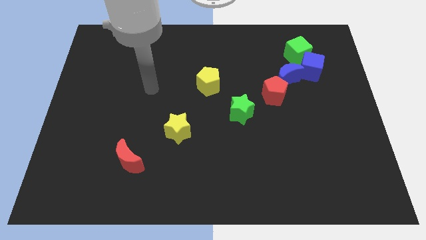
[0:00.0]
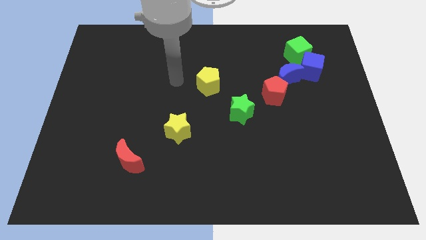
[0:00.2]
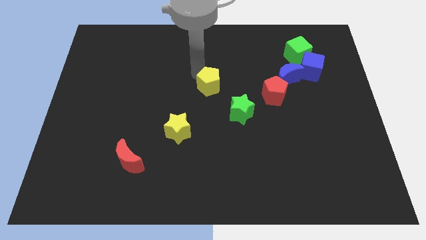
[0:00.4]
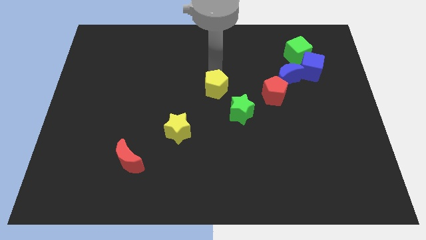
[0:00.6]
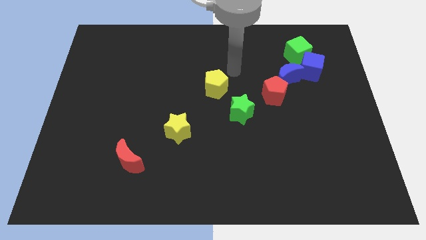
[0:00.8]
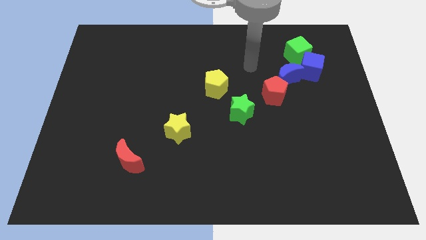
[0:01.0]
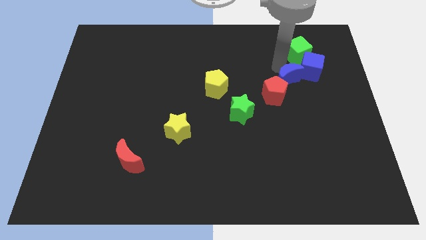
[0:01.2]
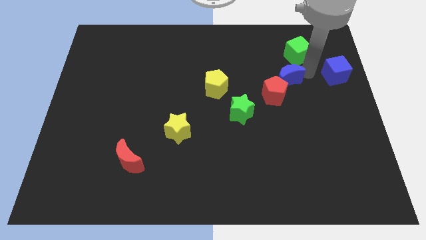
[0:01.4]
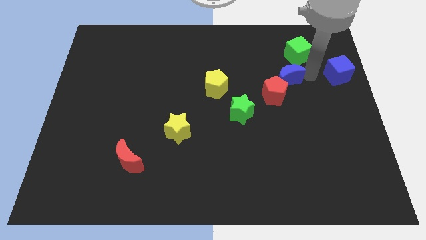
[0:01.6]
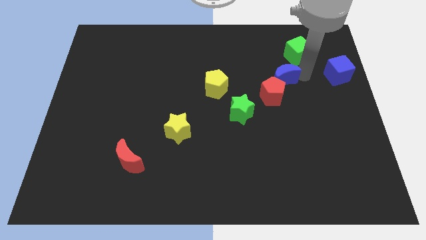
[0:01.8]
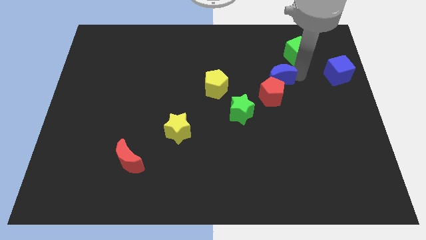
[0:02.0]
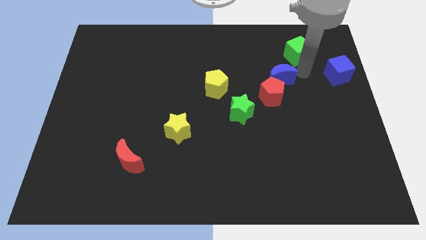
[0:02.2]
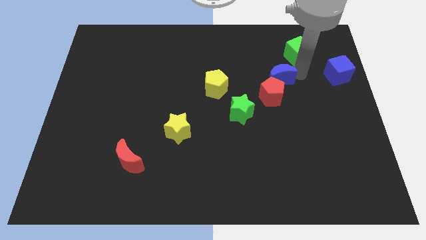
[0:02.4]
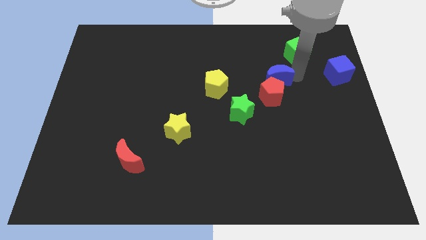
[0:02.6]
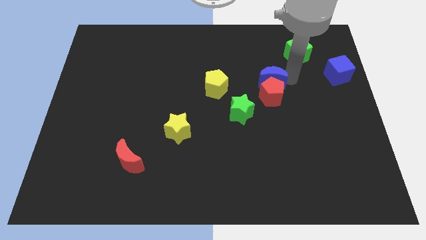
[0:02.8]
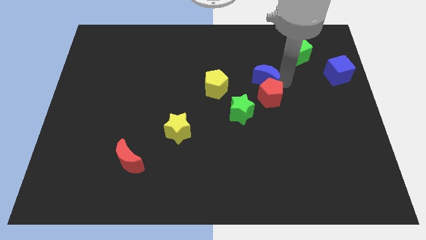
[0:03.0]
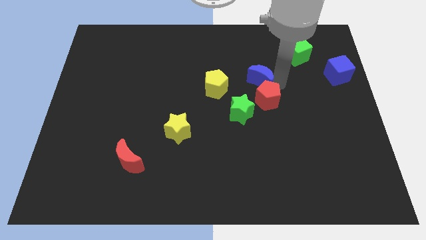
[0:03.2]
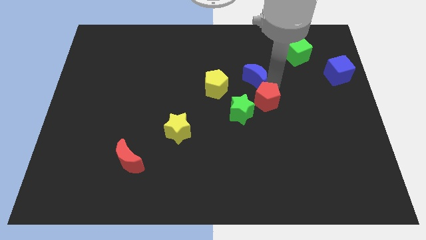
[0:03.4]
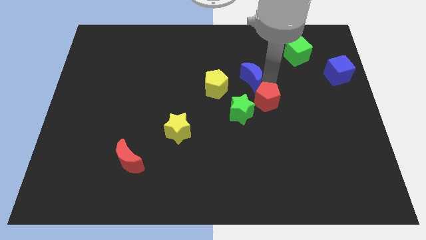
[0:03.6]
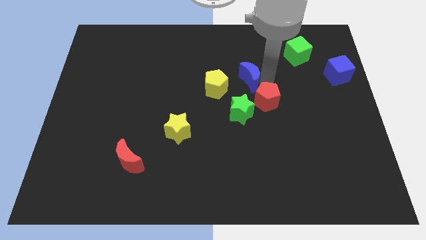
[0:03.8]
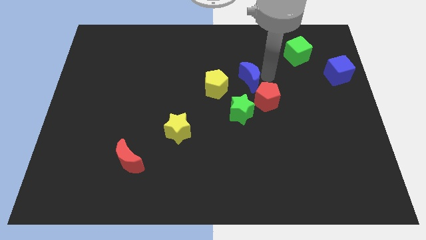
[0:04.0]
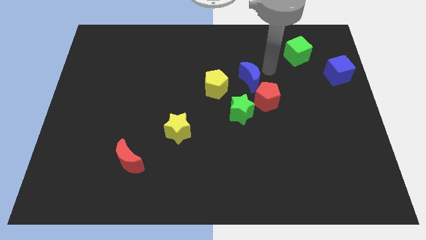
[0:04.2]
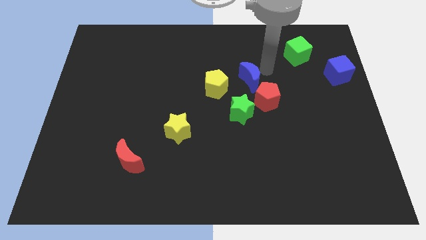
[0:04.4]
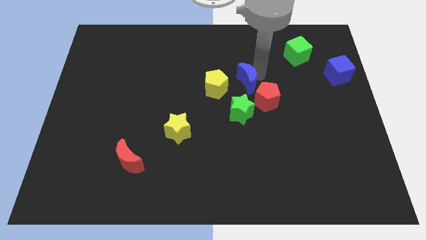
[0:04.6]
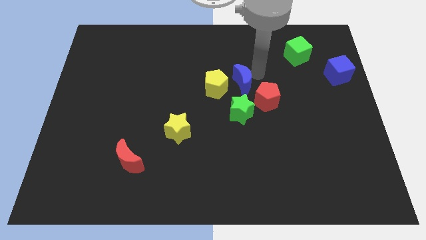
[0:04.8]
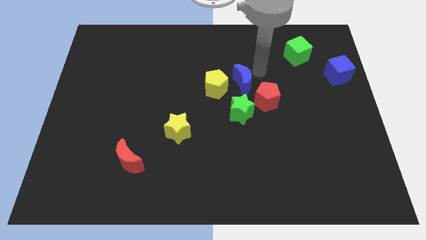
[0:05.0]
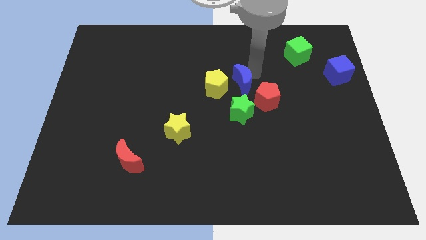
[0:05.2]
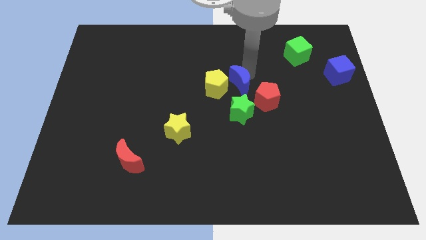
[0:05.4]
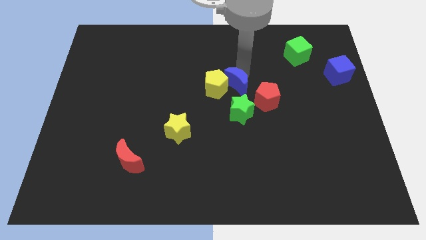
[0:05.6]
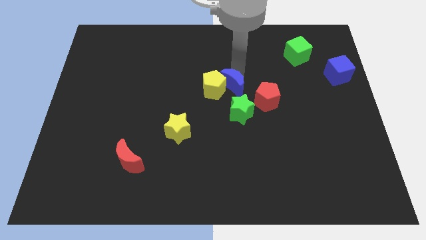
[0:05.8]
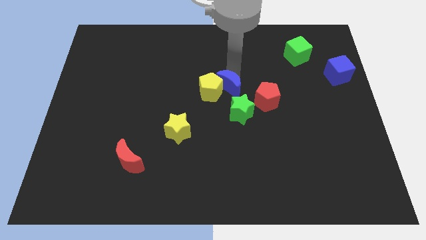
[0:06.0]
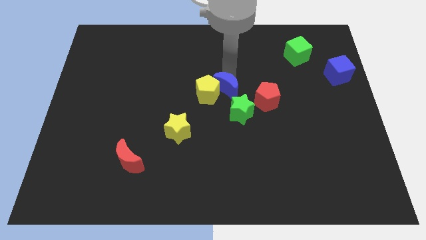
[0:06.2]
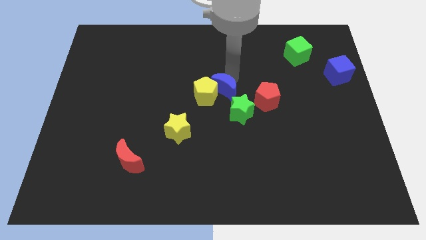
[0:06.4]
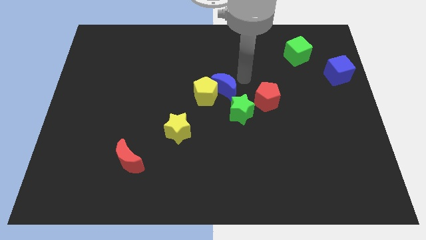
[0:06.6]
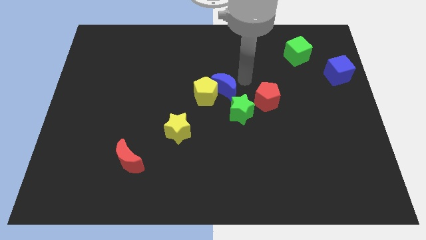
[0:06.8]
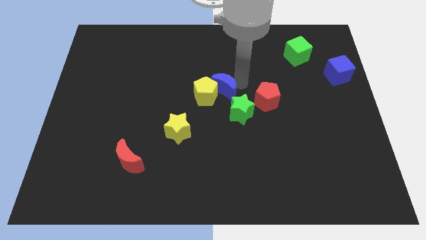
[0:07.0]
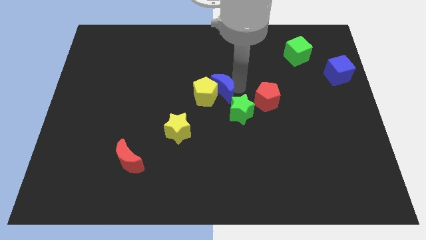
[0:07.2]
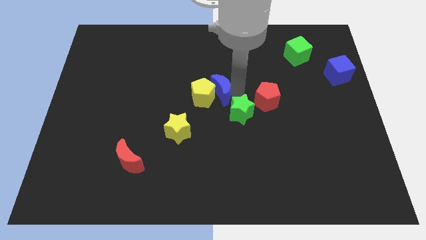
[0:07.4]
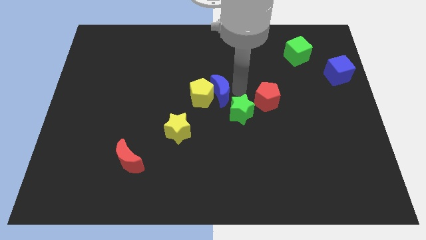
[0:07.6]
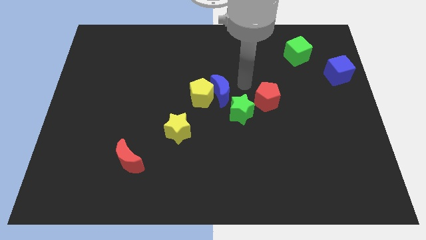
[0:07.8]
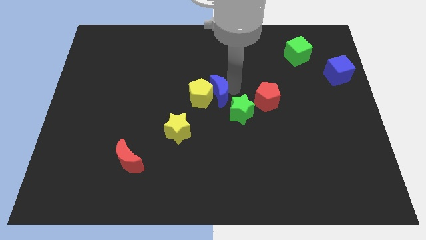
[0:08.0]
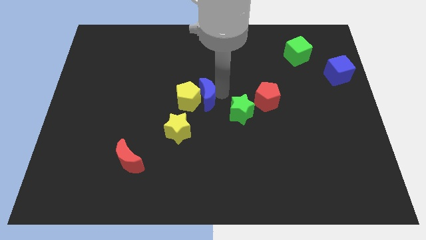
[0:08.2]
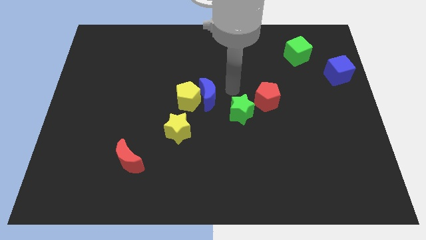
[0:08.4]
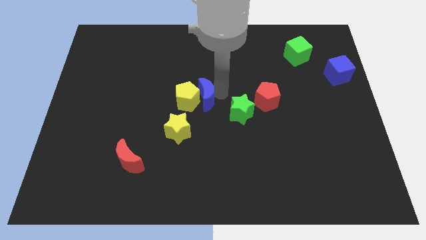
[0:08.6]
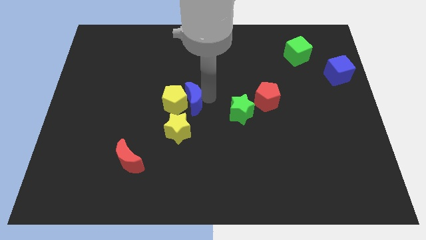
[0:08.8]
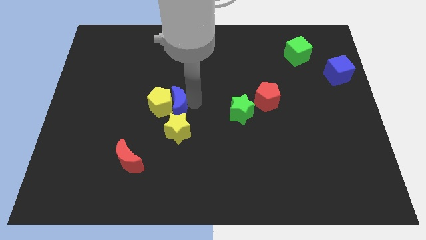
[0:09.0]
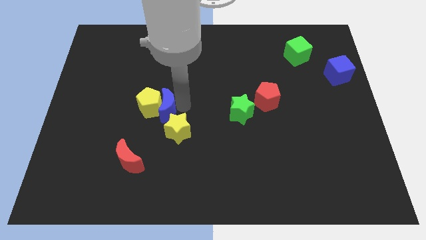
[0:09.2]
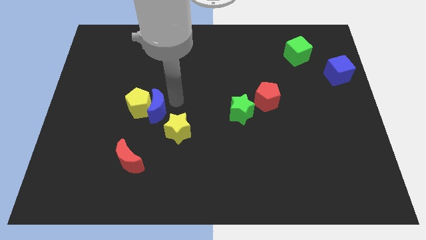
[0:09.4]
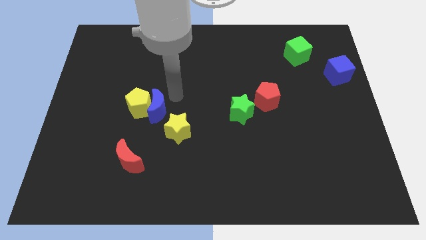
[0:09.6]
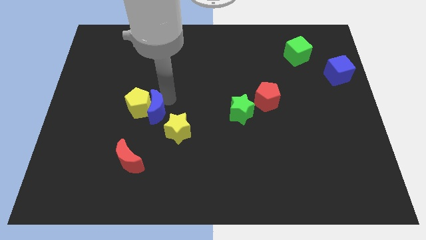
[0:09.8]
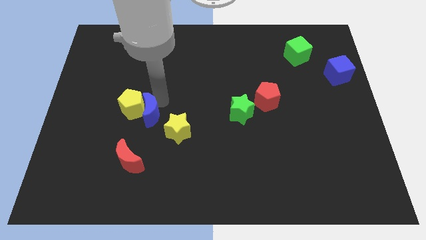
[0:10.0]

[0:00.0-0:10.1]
slide the blue moon to the left side of the yellow star

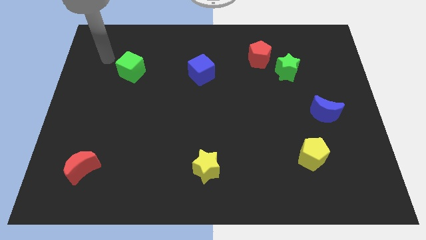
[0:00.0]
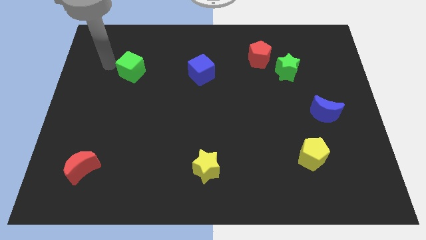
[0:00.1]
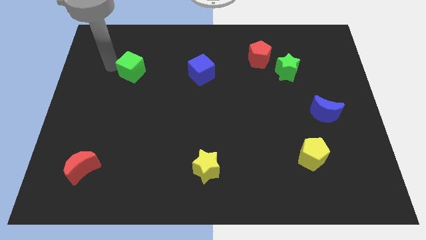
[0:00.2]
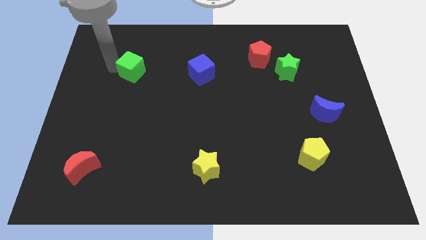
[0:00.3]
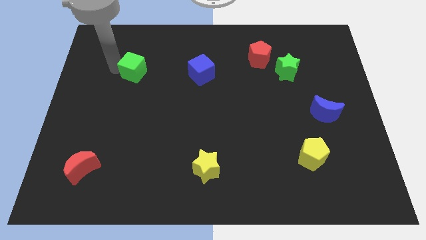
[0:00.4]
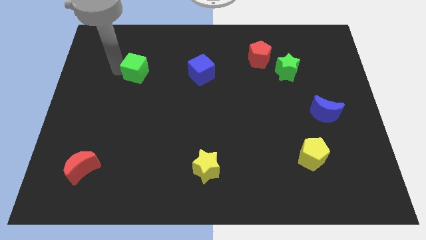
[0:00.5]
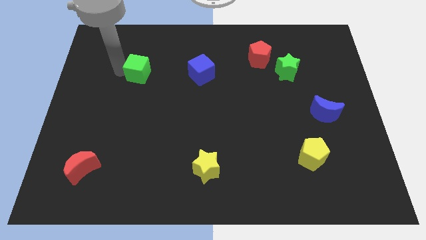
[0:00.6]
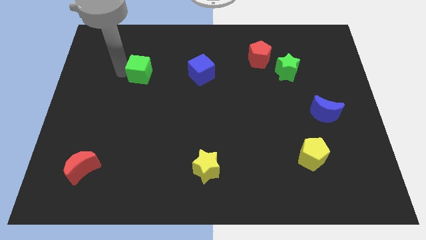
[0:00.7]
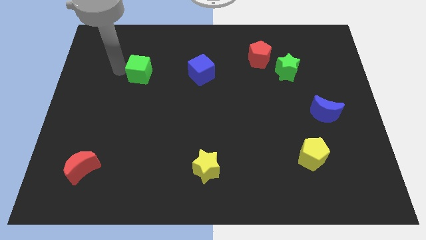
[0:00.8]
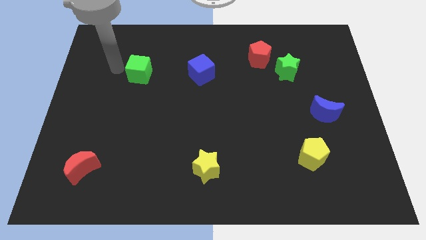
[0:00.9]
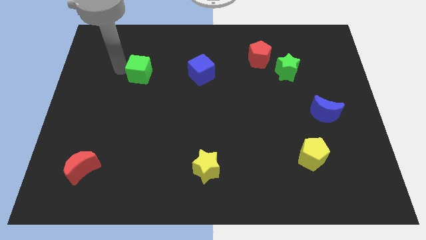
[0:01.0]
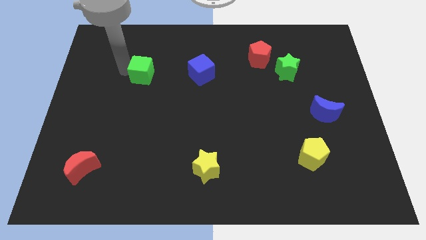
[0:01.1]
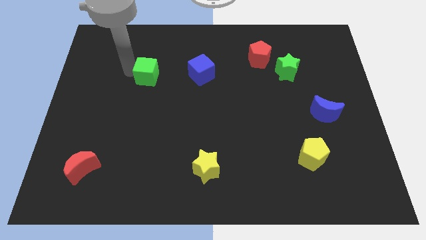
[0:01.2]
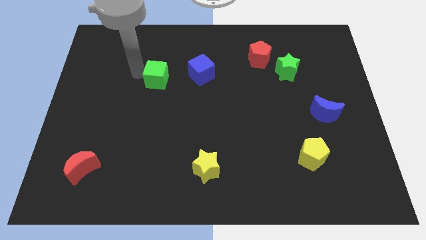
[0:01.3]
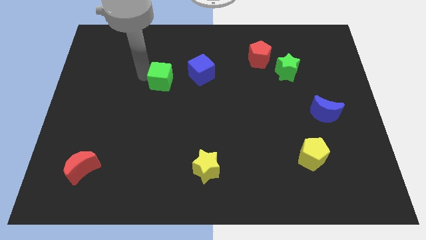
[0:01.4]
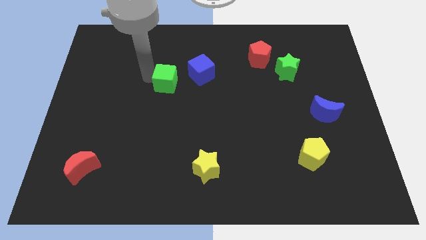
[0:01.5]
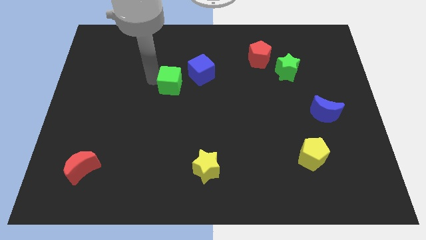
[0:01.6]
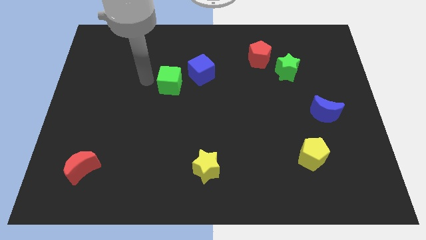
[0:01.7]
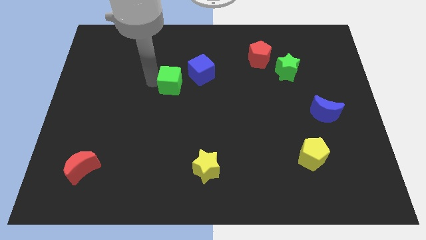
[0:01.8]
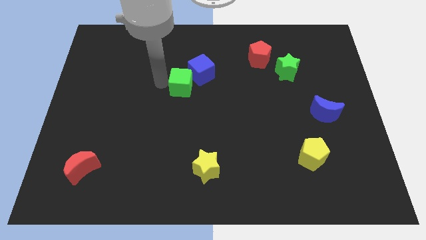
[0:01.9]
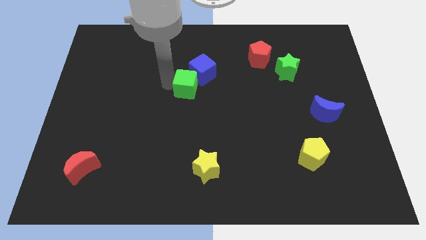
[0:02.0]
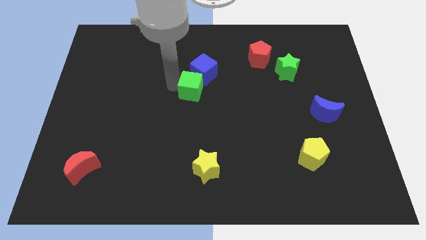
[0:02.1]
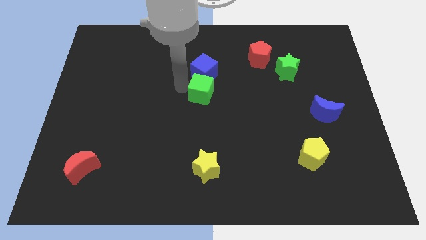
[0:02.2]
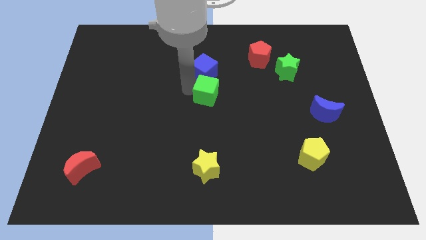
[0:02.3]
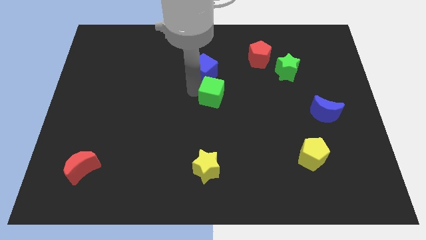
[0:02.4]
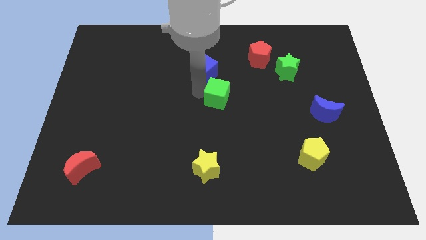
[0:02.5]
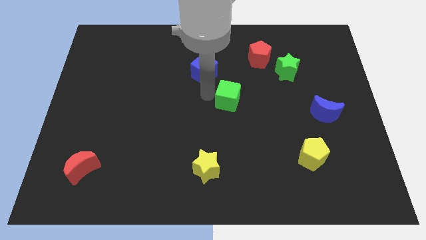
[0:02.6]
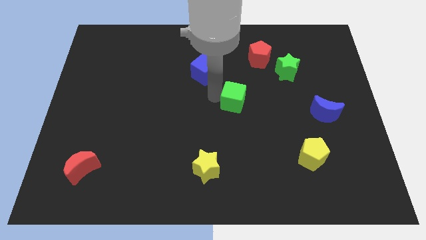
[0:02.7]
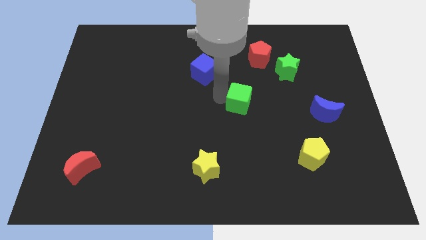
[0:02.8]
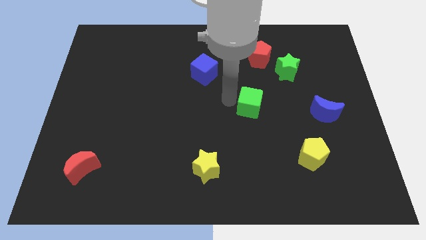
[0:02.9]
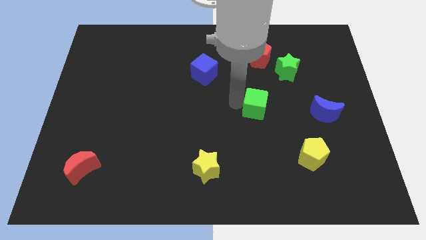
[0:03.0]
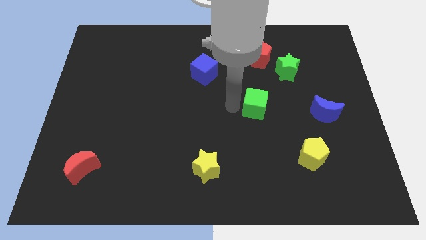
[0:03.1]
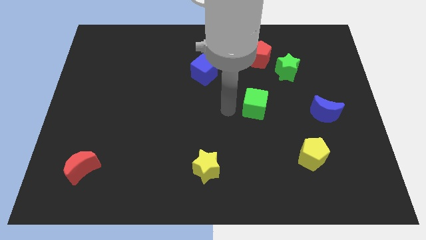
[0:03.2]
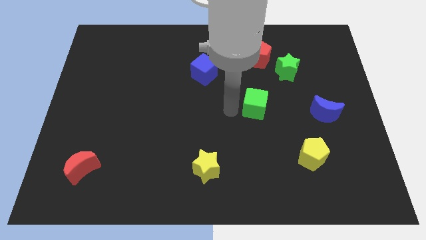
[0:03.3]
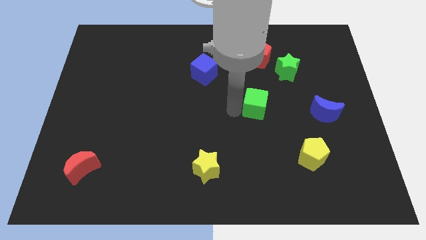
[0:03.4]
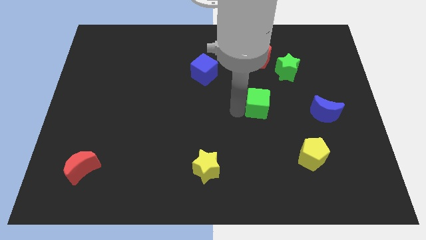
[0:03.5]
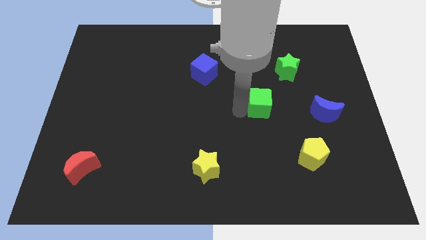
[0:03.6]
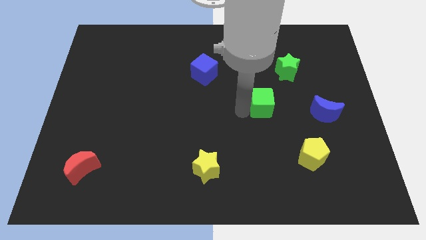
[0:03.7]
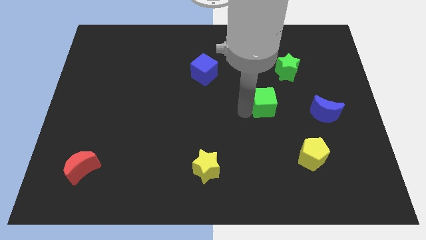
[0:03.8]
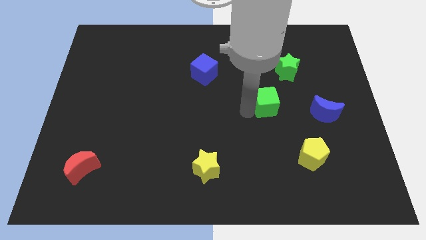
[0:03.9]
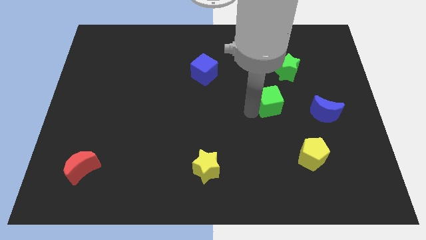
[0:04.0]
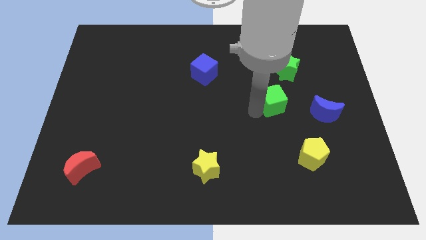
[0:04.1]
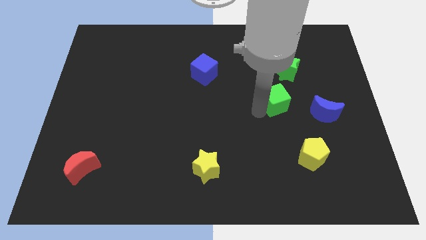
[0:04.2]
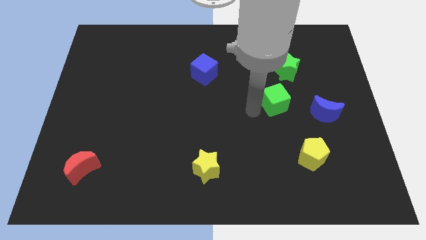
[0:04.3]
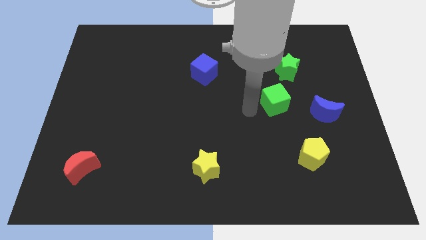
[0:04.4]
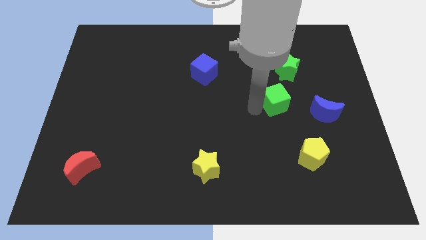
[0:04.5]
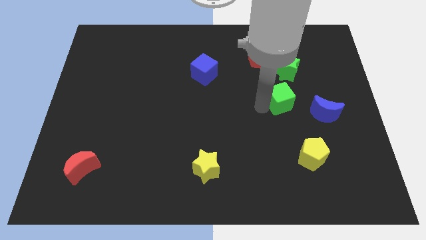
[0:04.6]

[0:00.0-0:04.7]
slide the green cube diagonally up and to the left of the blue moon
